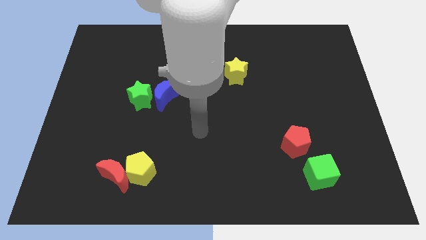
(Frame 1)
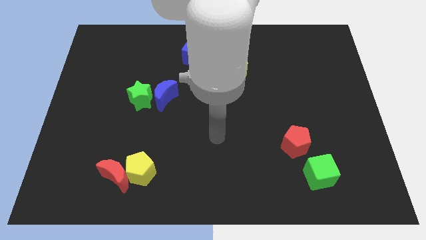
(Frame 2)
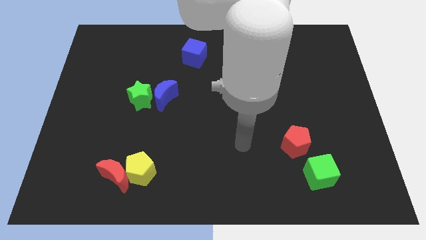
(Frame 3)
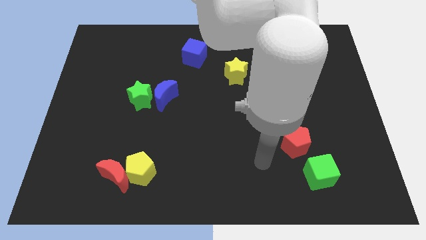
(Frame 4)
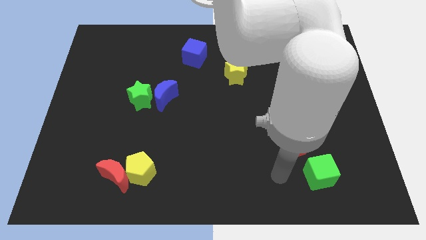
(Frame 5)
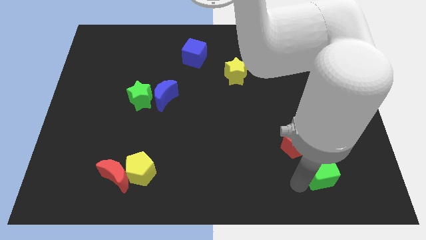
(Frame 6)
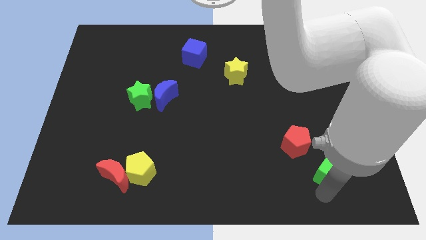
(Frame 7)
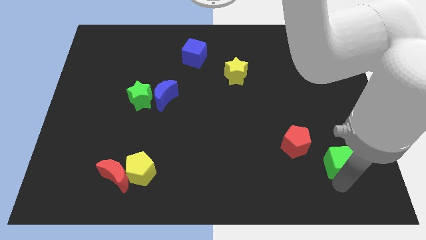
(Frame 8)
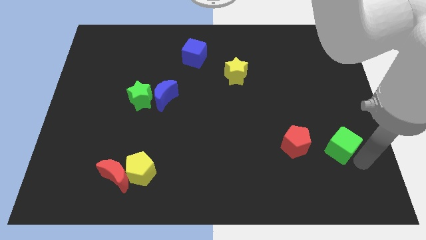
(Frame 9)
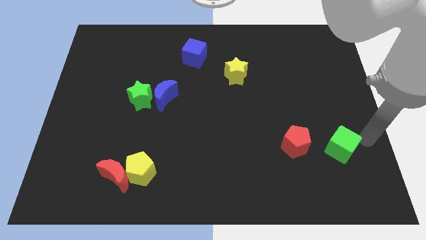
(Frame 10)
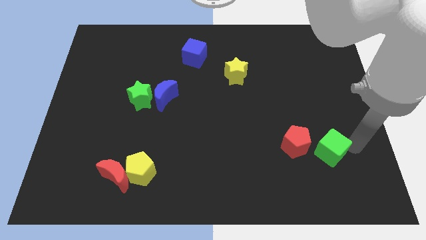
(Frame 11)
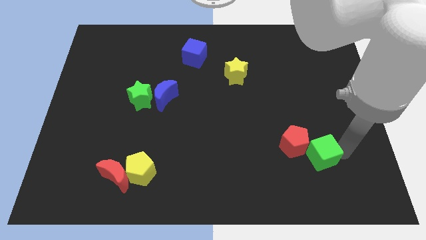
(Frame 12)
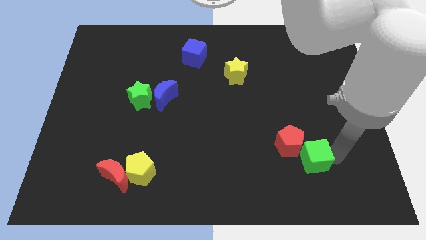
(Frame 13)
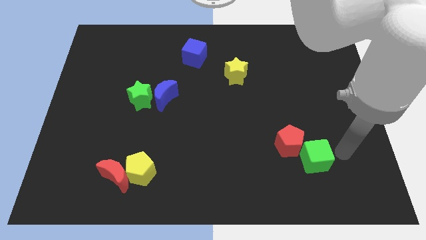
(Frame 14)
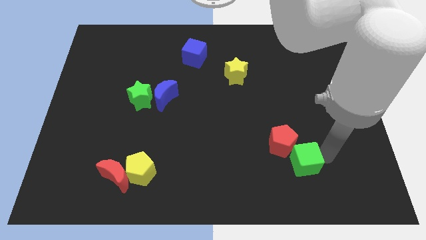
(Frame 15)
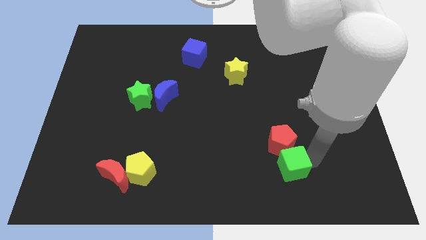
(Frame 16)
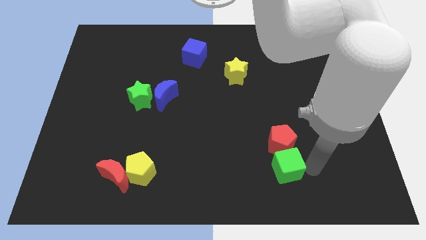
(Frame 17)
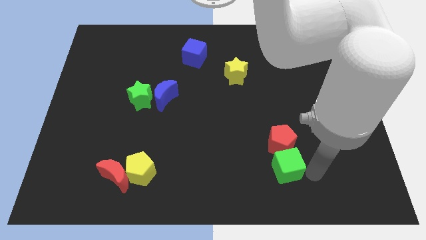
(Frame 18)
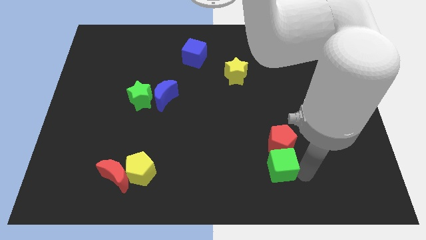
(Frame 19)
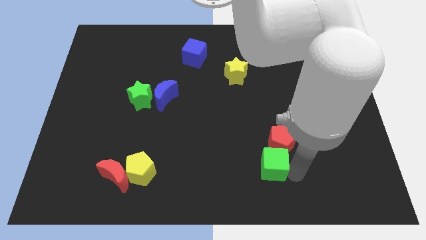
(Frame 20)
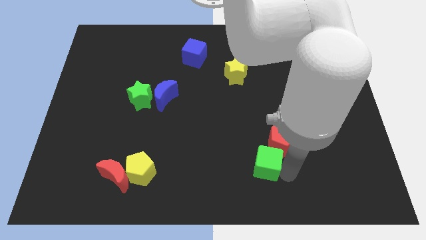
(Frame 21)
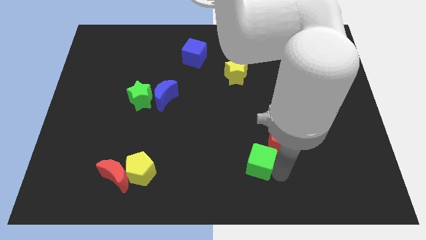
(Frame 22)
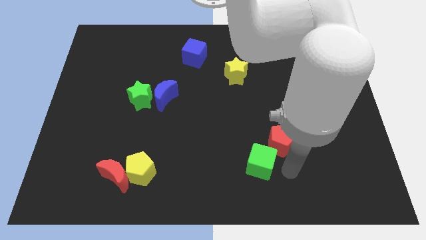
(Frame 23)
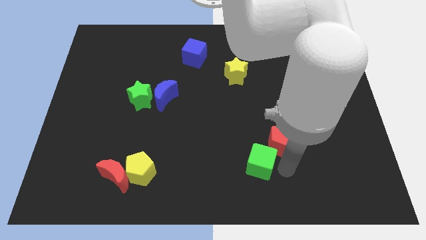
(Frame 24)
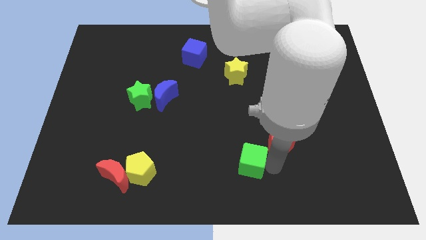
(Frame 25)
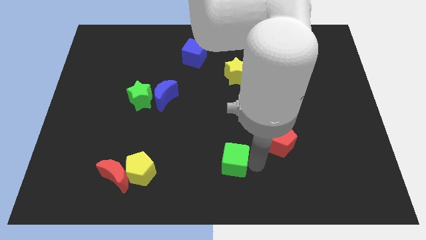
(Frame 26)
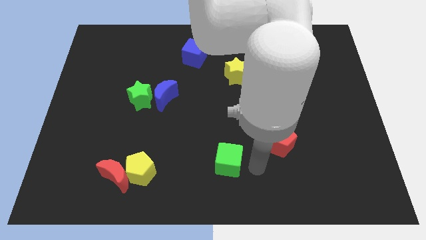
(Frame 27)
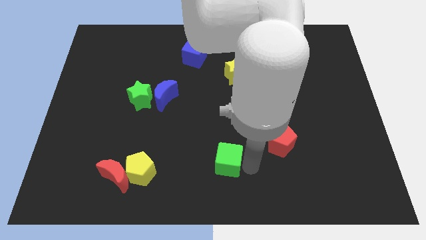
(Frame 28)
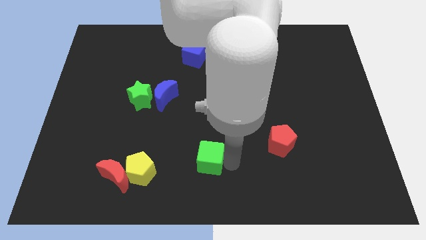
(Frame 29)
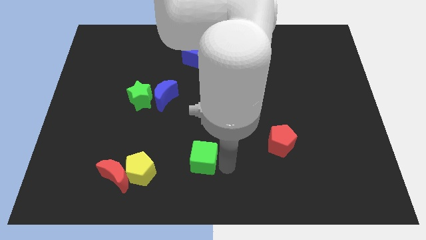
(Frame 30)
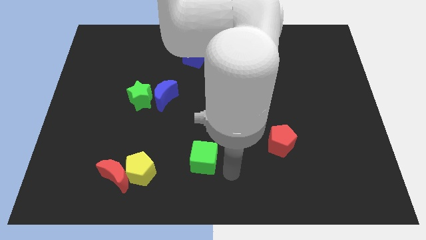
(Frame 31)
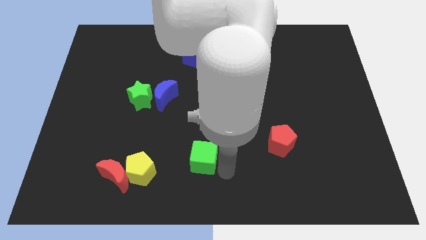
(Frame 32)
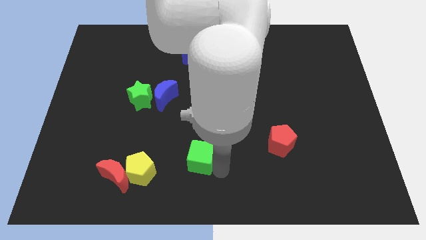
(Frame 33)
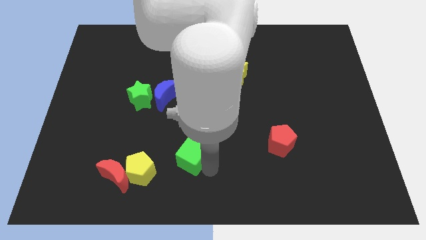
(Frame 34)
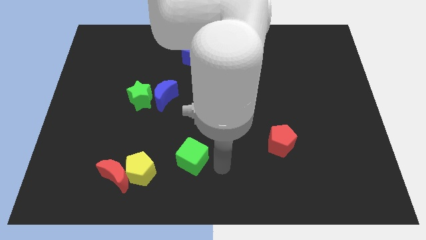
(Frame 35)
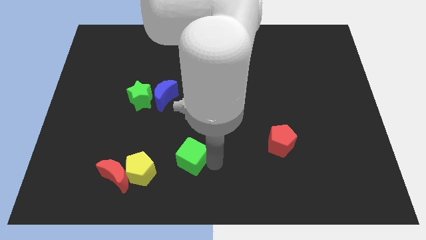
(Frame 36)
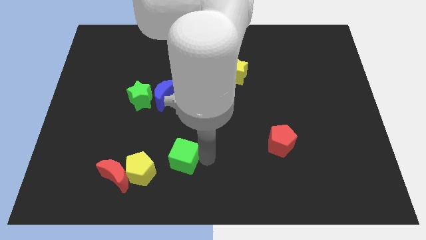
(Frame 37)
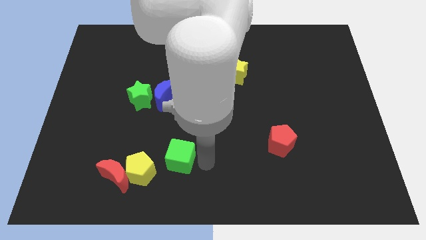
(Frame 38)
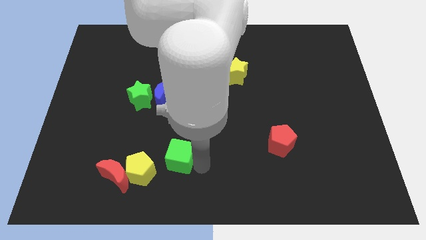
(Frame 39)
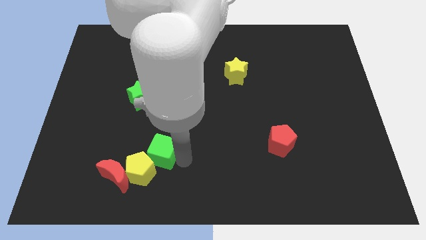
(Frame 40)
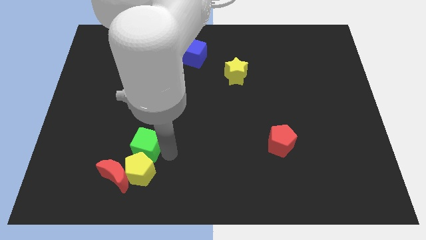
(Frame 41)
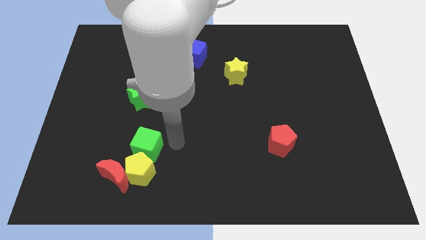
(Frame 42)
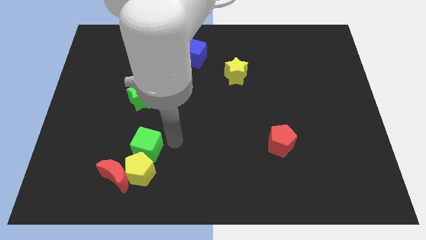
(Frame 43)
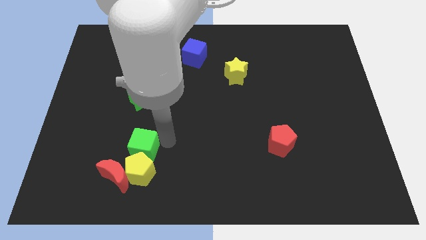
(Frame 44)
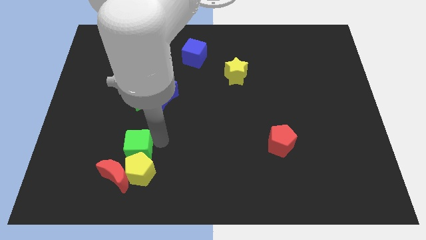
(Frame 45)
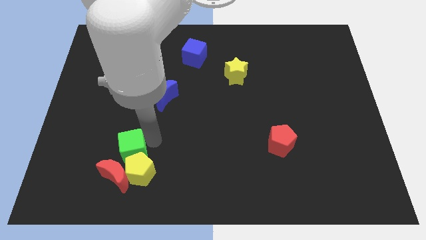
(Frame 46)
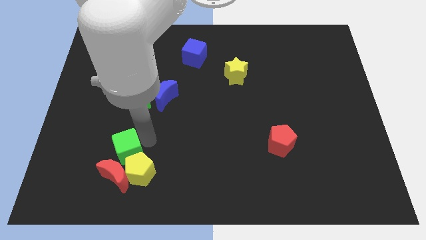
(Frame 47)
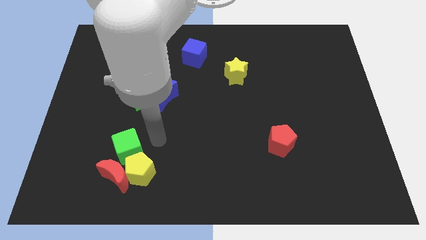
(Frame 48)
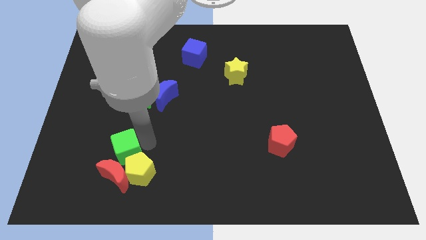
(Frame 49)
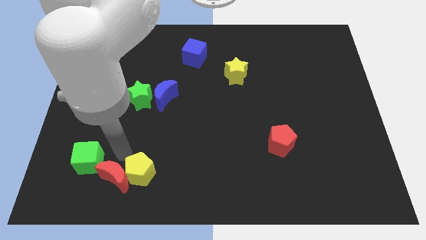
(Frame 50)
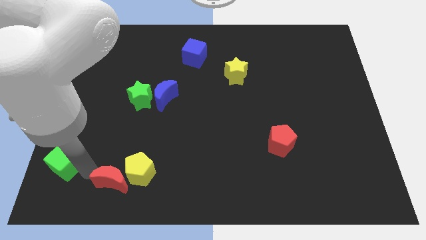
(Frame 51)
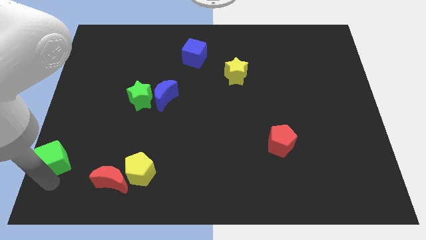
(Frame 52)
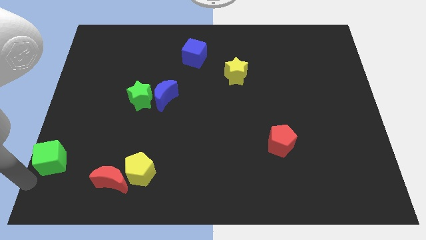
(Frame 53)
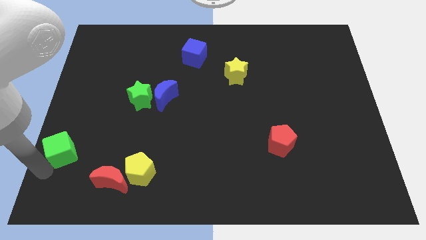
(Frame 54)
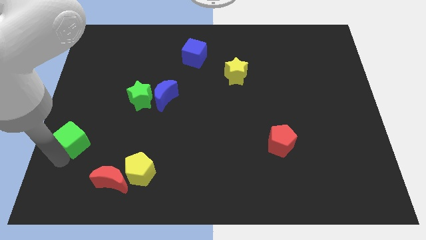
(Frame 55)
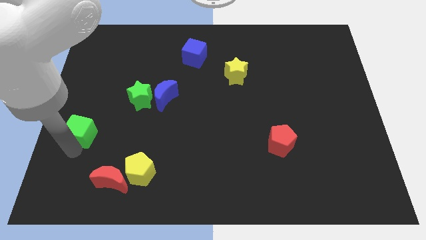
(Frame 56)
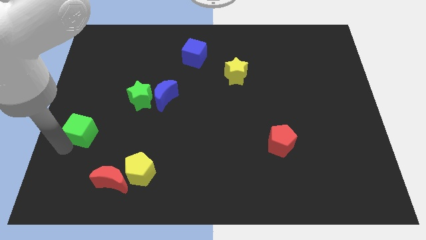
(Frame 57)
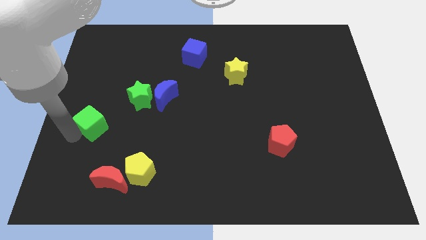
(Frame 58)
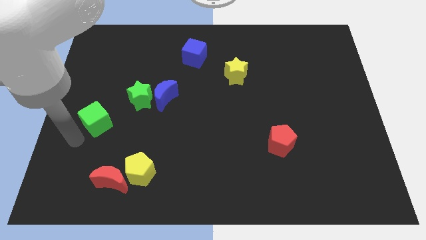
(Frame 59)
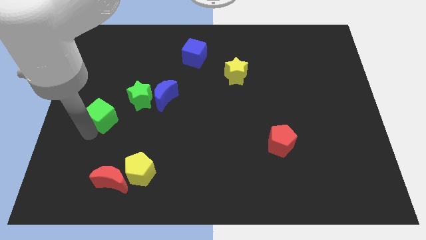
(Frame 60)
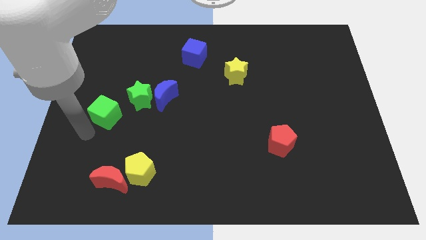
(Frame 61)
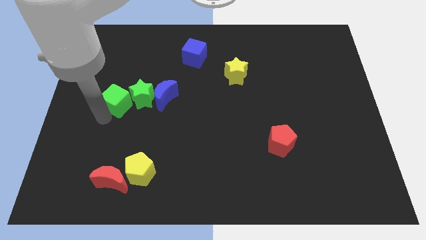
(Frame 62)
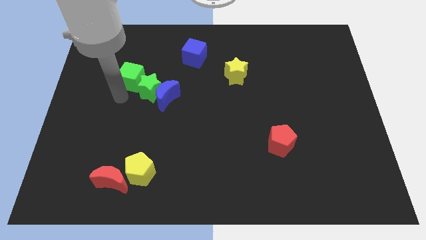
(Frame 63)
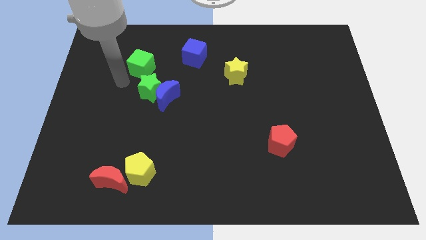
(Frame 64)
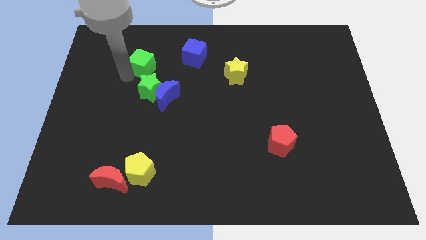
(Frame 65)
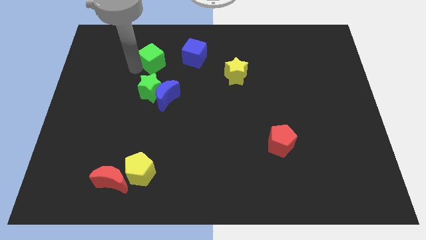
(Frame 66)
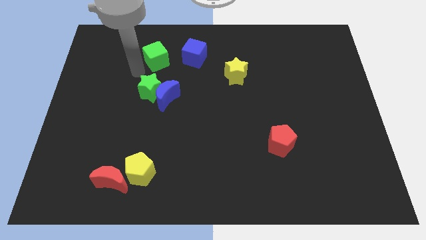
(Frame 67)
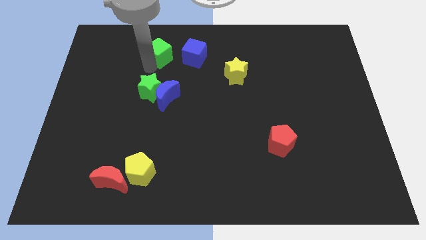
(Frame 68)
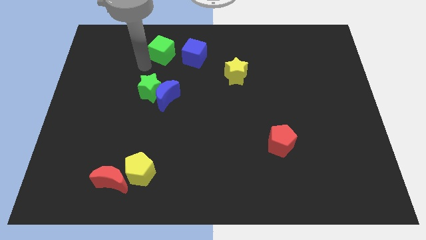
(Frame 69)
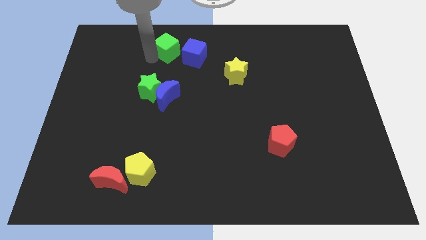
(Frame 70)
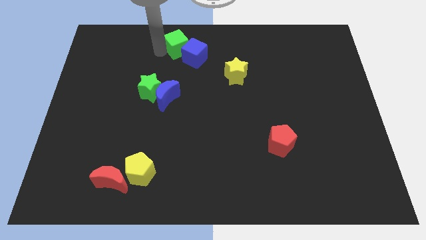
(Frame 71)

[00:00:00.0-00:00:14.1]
put the green cube to the top side
